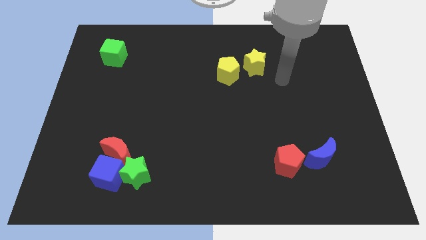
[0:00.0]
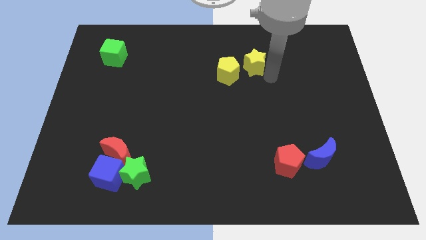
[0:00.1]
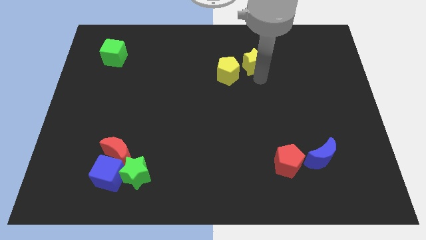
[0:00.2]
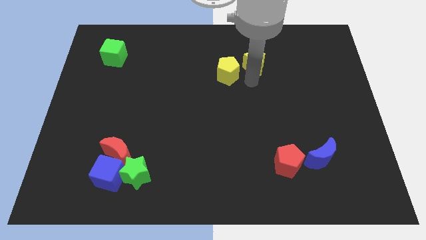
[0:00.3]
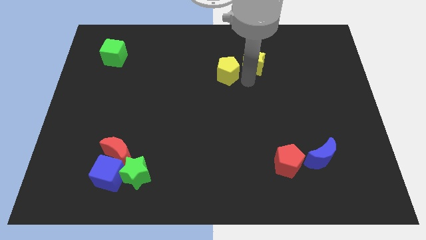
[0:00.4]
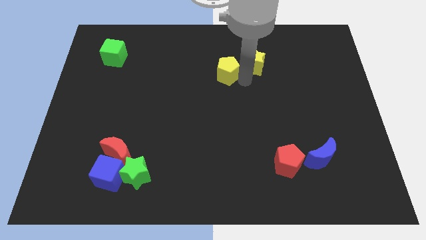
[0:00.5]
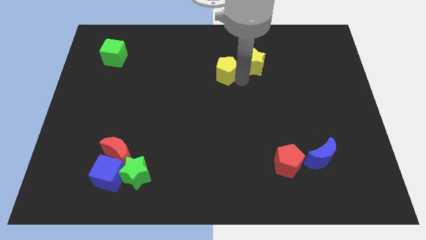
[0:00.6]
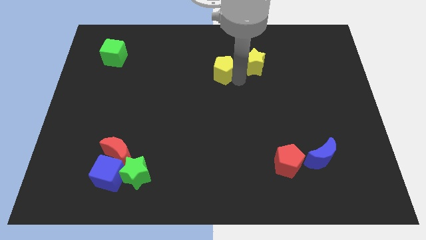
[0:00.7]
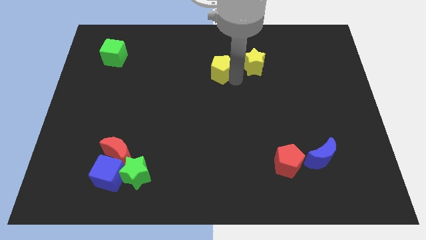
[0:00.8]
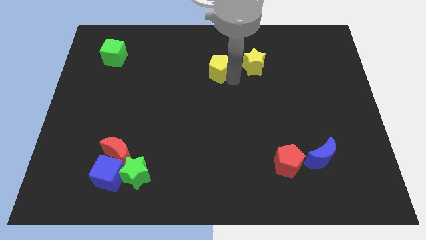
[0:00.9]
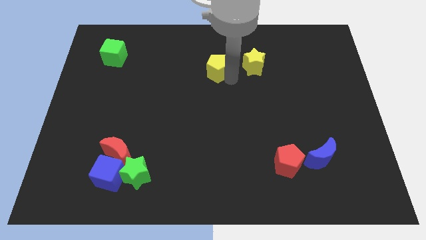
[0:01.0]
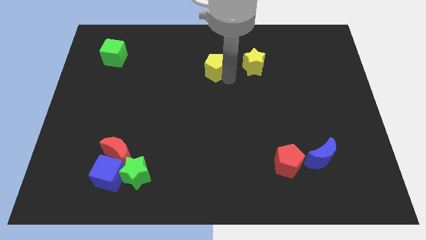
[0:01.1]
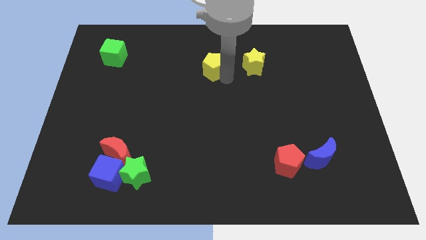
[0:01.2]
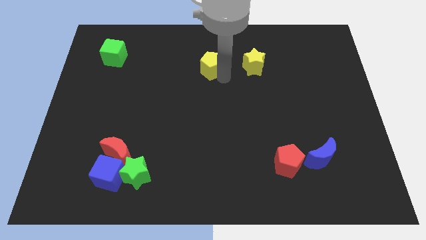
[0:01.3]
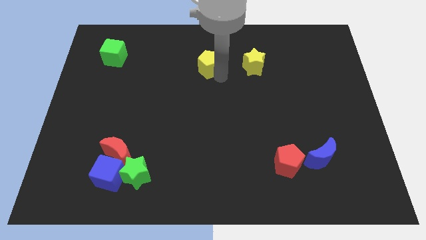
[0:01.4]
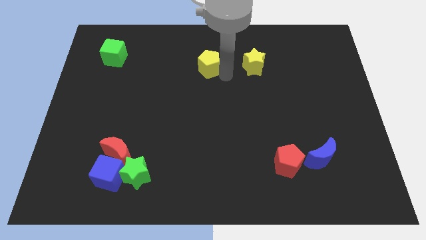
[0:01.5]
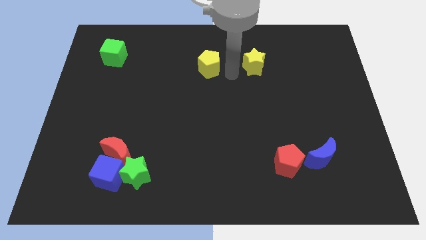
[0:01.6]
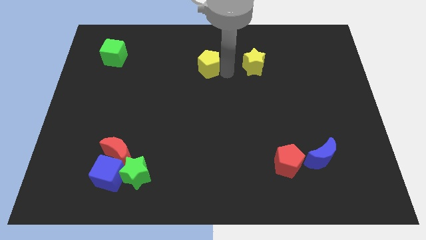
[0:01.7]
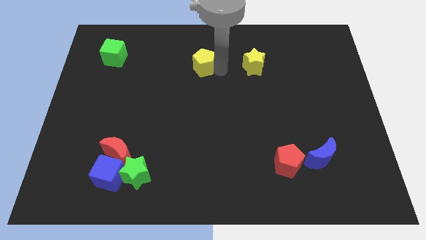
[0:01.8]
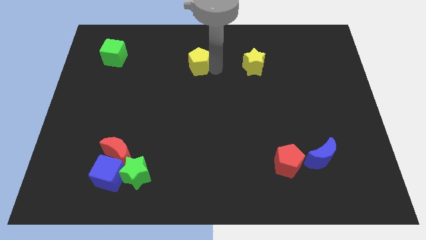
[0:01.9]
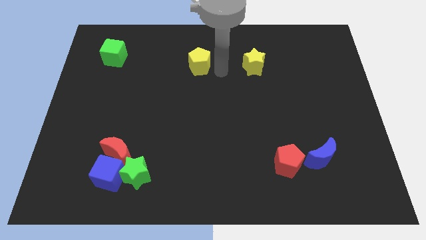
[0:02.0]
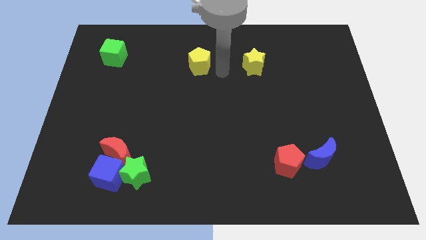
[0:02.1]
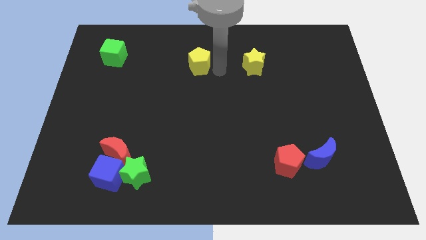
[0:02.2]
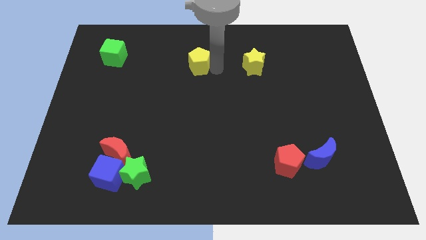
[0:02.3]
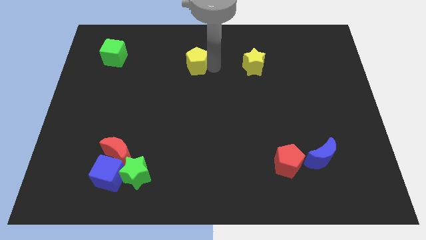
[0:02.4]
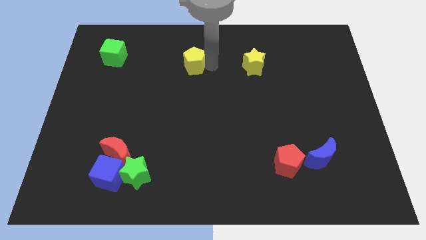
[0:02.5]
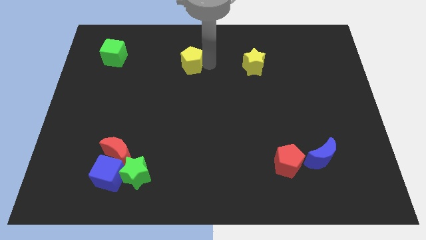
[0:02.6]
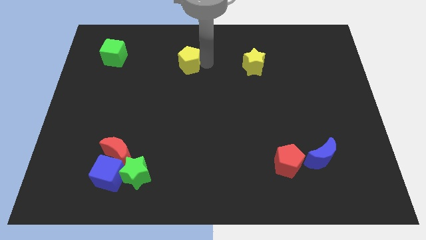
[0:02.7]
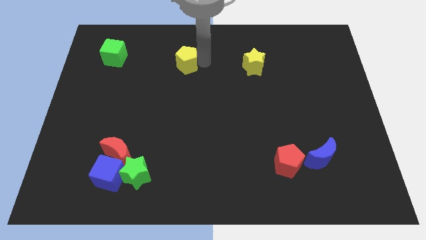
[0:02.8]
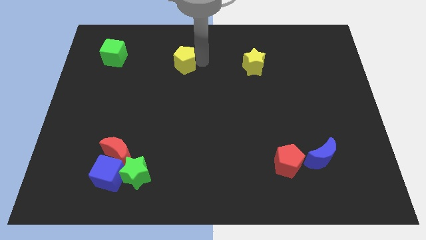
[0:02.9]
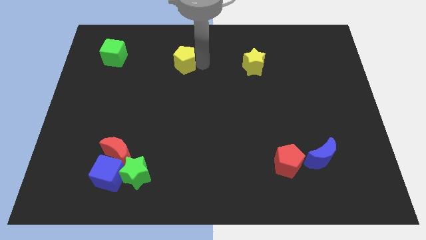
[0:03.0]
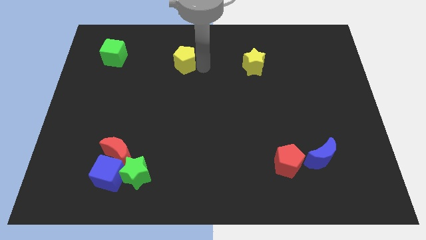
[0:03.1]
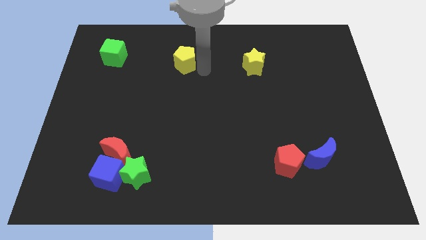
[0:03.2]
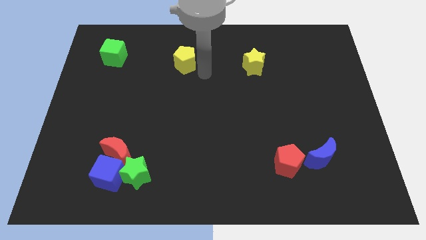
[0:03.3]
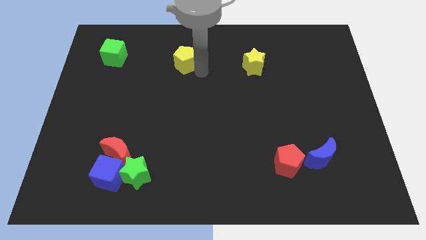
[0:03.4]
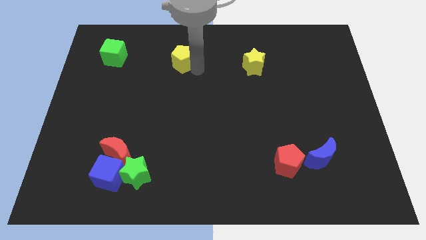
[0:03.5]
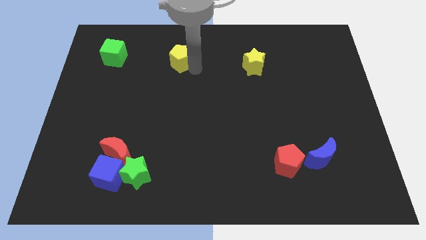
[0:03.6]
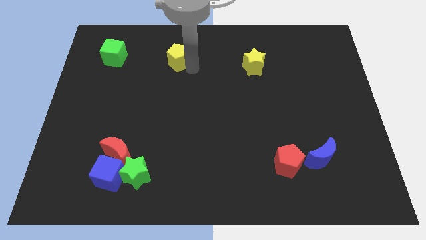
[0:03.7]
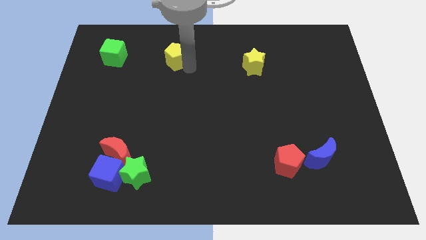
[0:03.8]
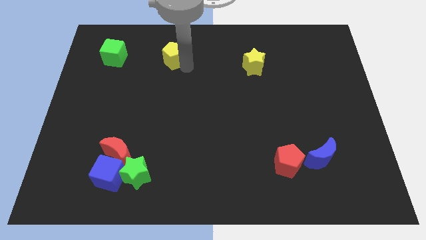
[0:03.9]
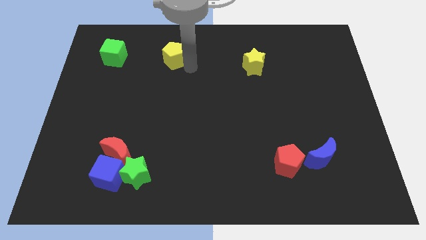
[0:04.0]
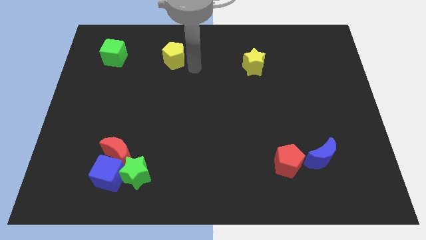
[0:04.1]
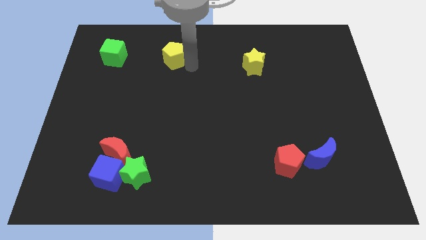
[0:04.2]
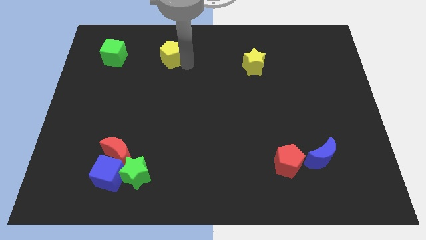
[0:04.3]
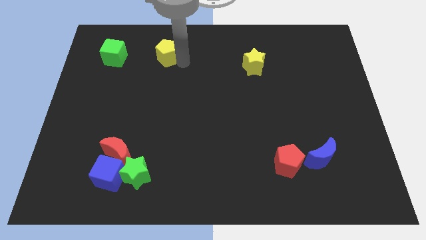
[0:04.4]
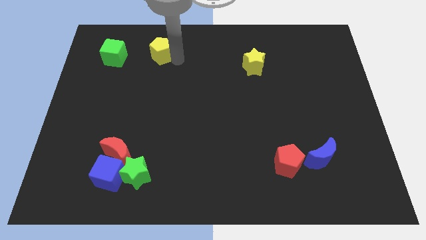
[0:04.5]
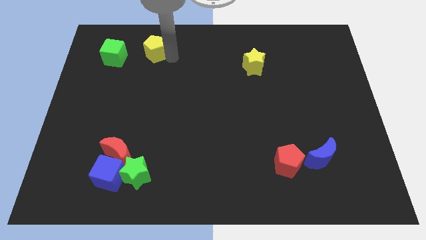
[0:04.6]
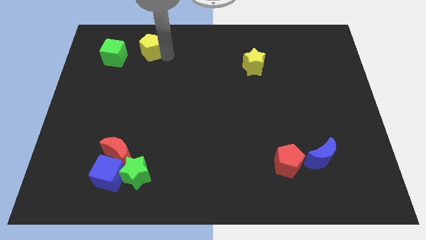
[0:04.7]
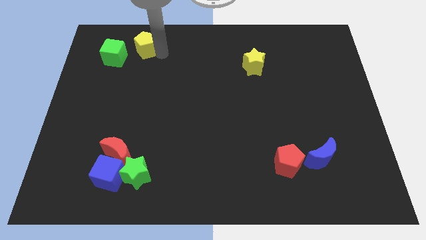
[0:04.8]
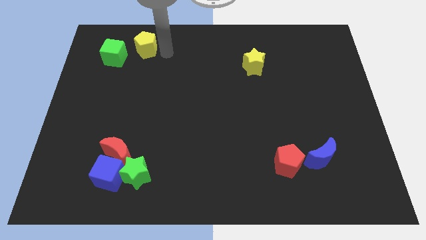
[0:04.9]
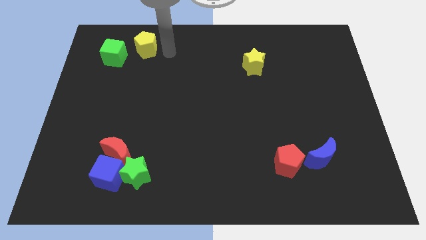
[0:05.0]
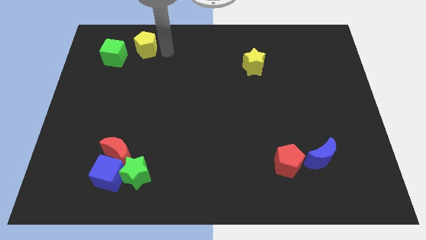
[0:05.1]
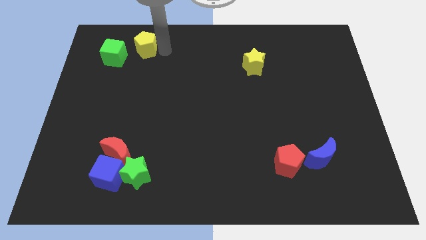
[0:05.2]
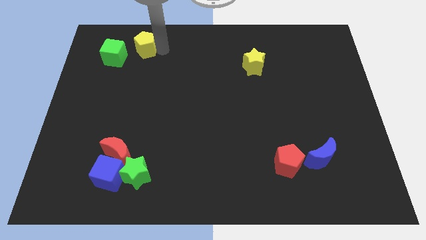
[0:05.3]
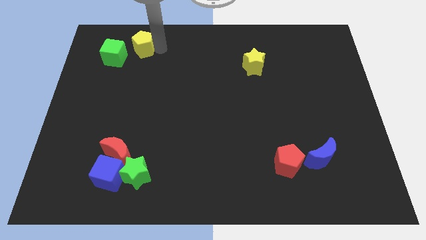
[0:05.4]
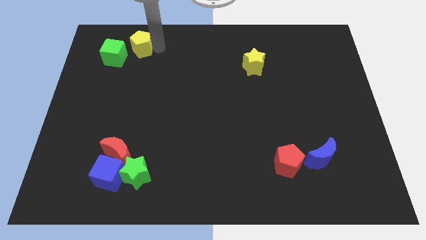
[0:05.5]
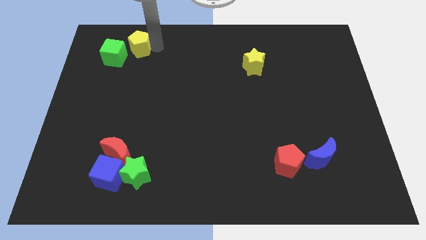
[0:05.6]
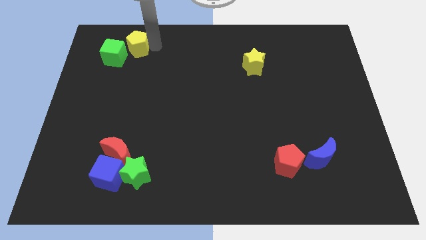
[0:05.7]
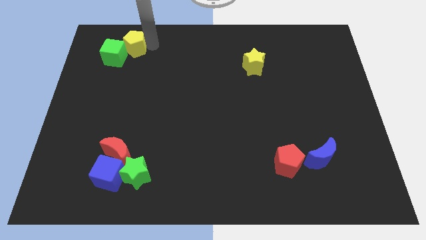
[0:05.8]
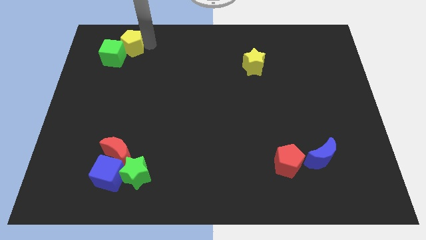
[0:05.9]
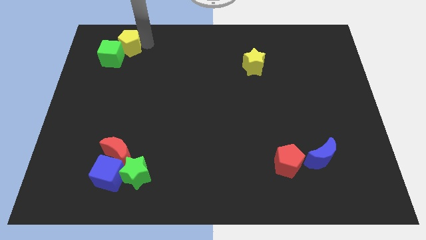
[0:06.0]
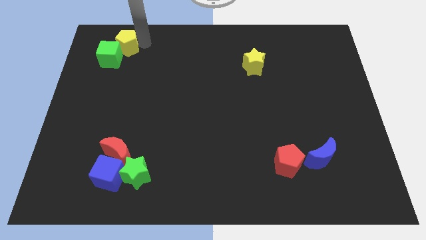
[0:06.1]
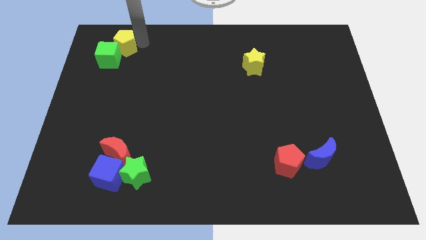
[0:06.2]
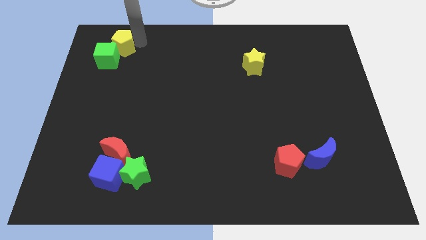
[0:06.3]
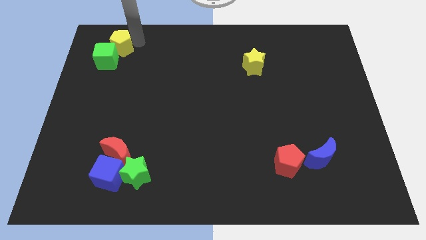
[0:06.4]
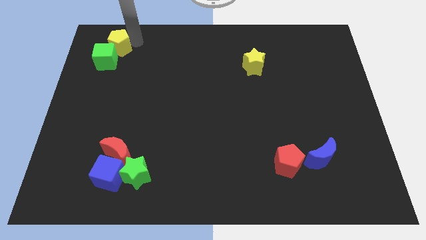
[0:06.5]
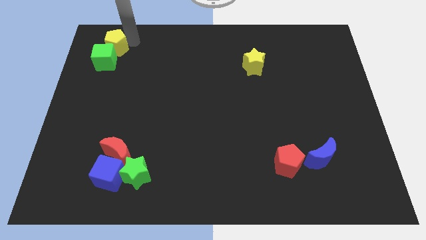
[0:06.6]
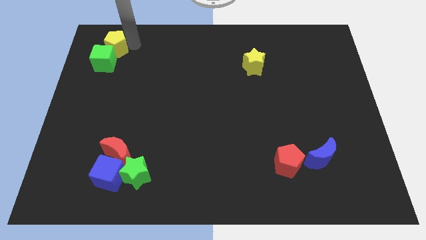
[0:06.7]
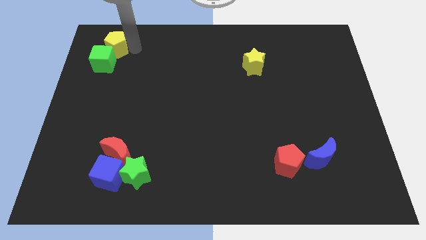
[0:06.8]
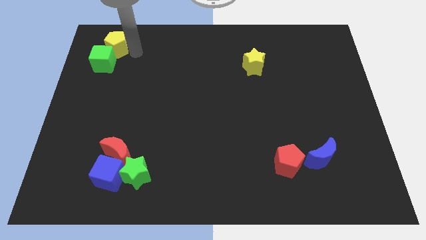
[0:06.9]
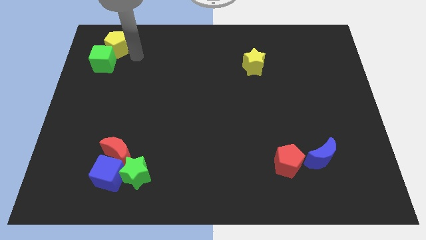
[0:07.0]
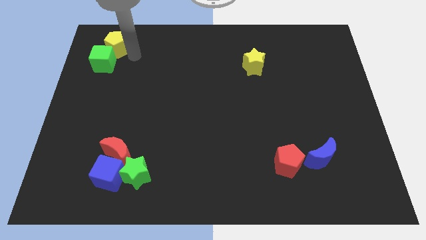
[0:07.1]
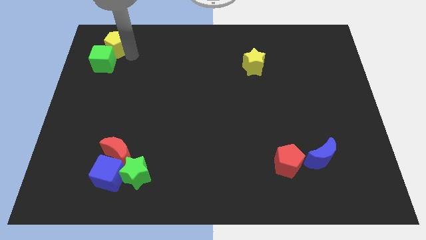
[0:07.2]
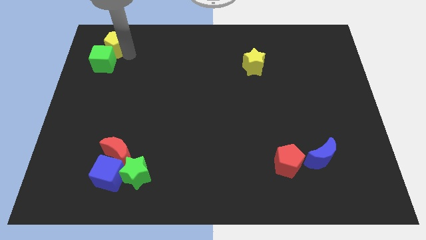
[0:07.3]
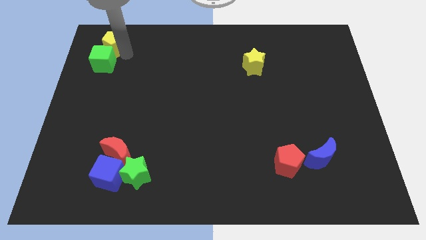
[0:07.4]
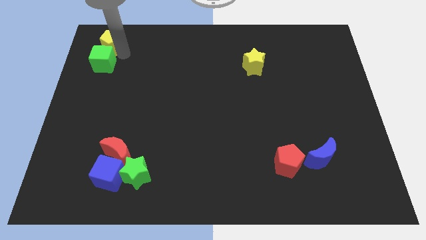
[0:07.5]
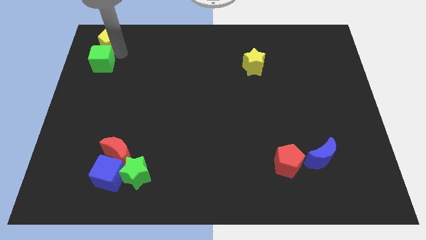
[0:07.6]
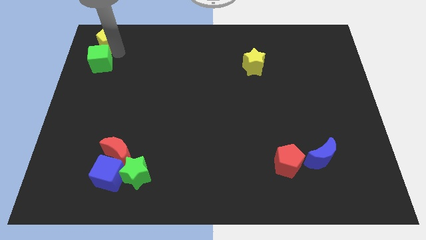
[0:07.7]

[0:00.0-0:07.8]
push the yellow pentagon to the top left corner
